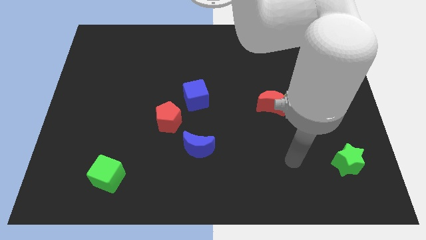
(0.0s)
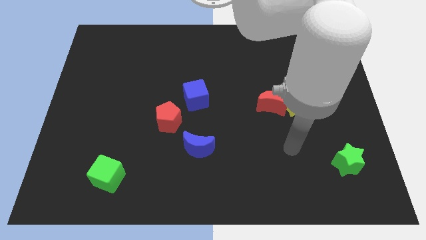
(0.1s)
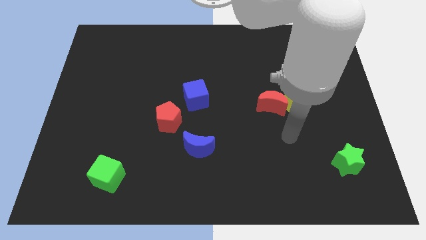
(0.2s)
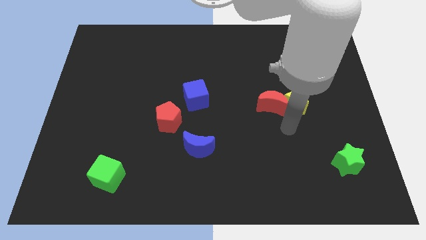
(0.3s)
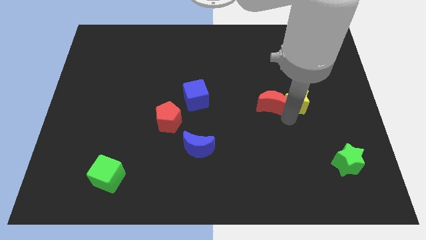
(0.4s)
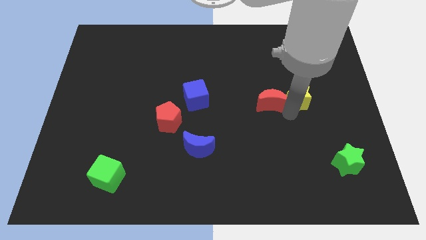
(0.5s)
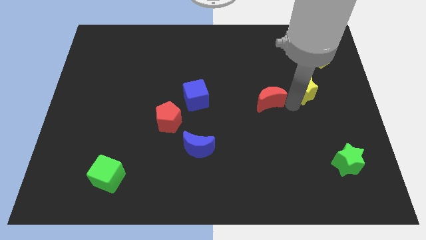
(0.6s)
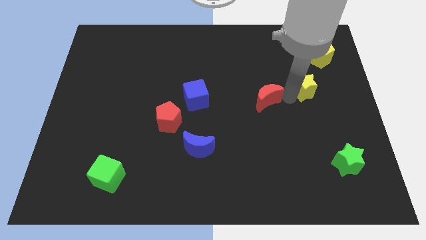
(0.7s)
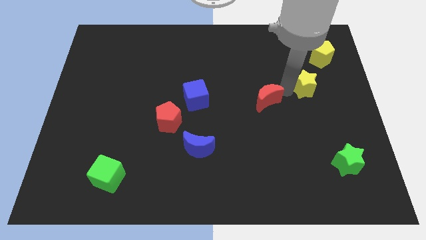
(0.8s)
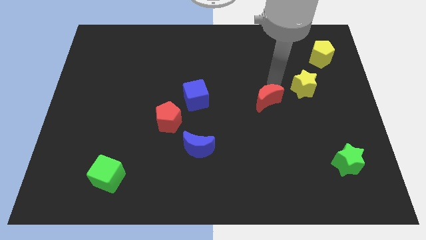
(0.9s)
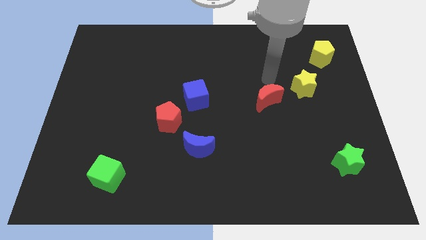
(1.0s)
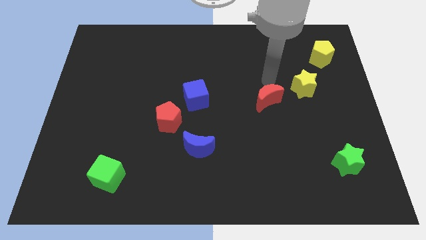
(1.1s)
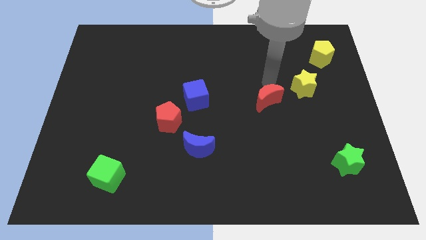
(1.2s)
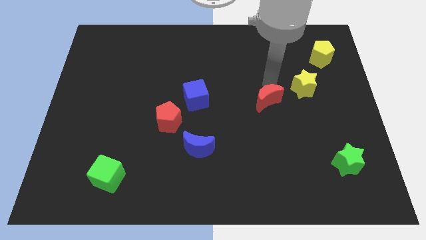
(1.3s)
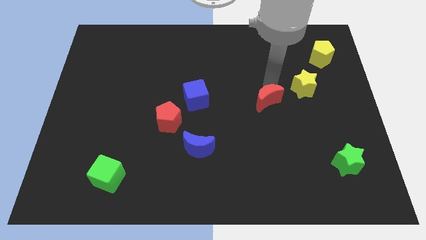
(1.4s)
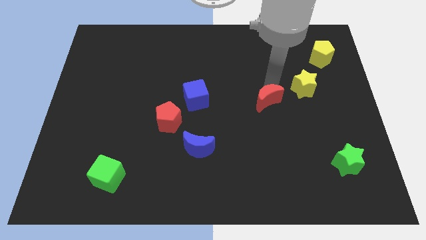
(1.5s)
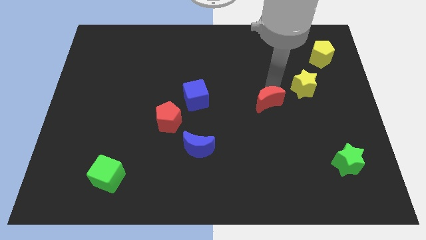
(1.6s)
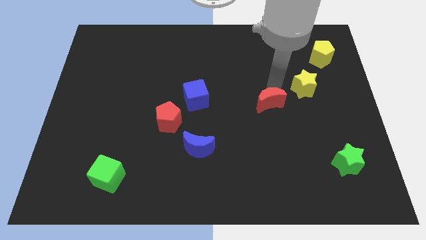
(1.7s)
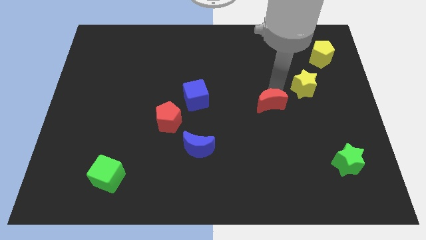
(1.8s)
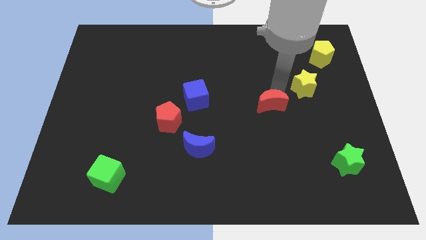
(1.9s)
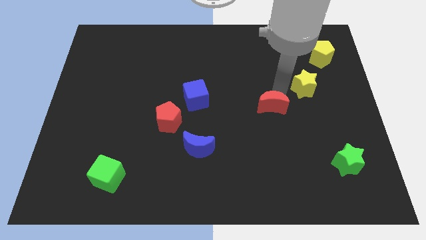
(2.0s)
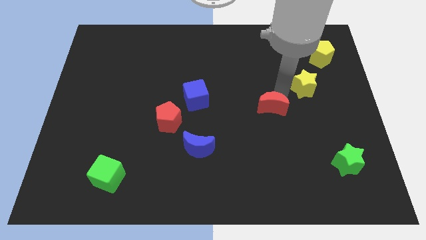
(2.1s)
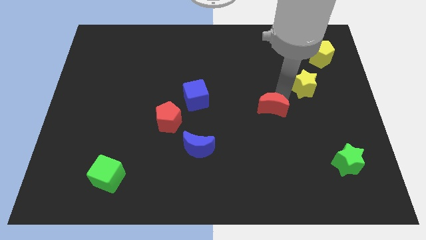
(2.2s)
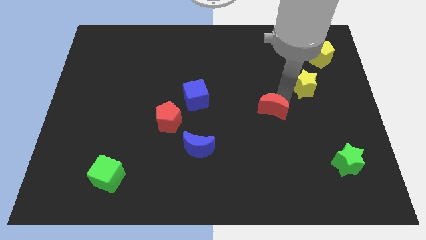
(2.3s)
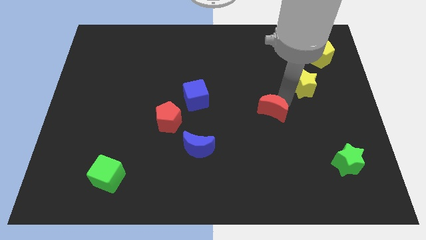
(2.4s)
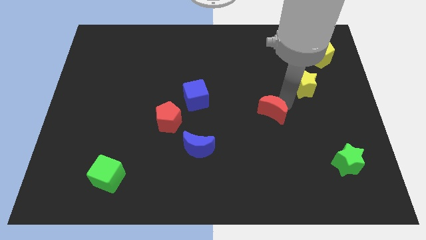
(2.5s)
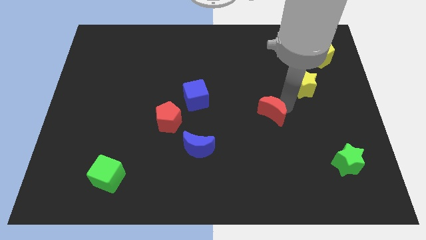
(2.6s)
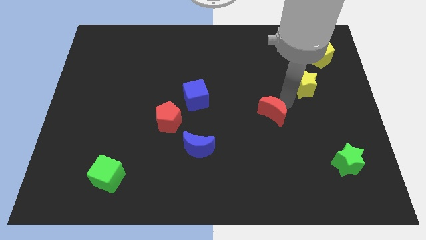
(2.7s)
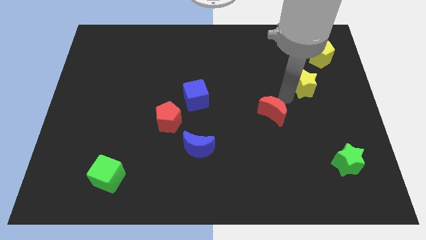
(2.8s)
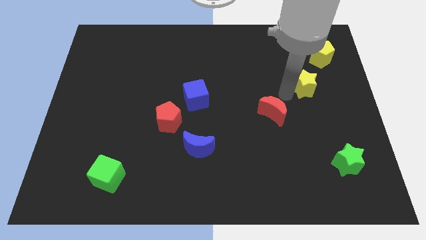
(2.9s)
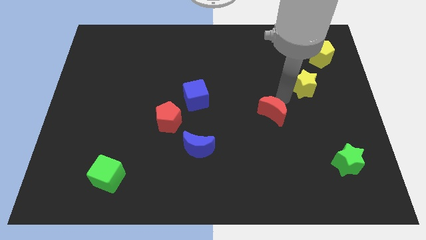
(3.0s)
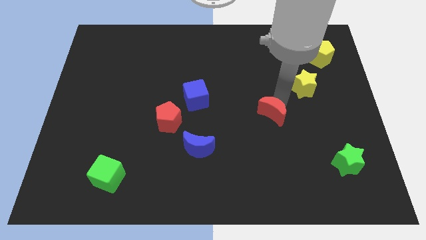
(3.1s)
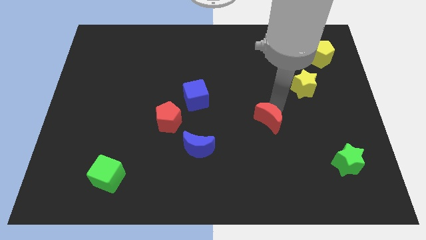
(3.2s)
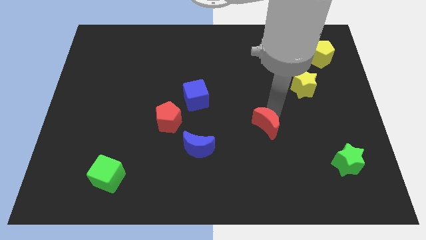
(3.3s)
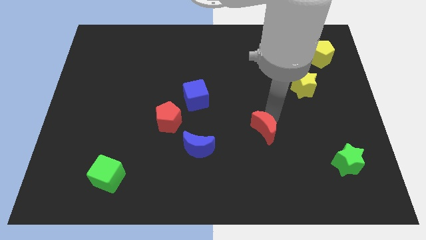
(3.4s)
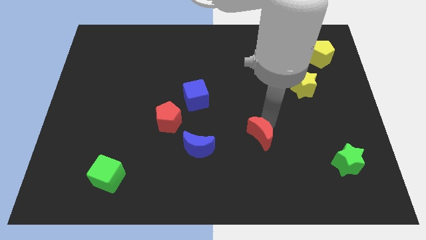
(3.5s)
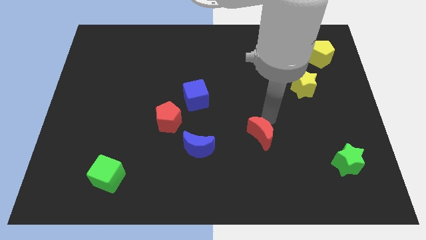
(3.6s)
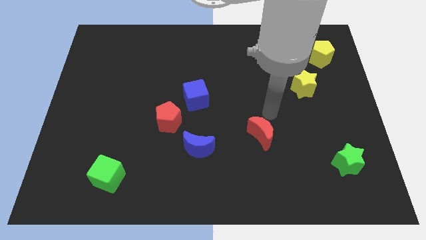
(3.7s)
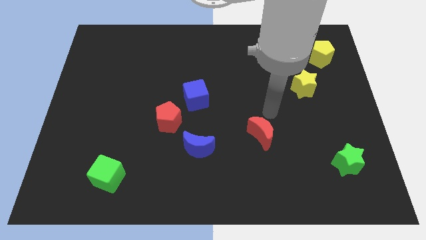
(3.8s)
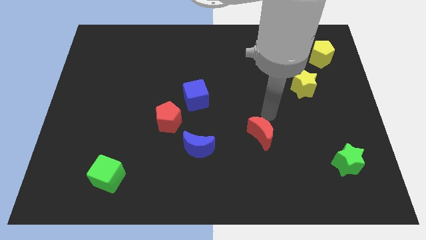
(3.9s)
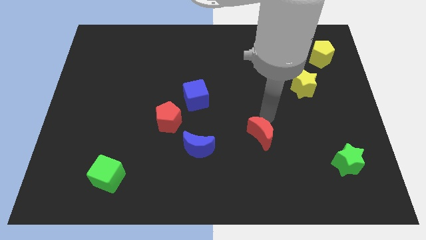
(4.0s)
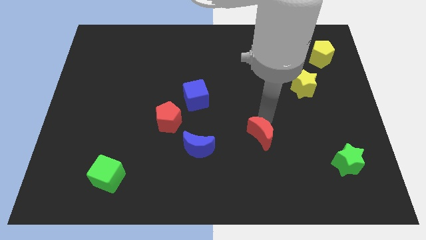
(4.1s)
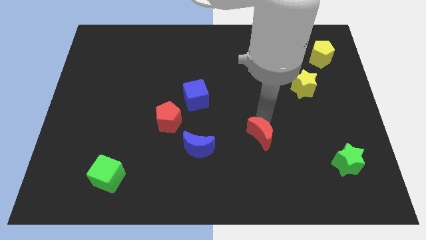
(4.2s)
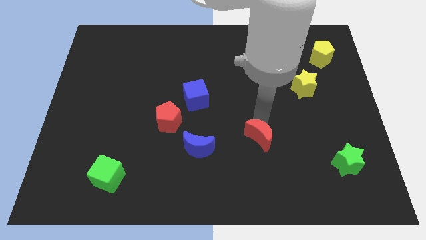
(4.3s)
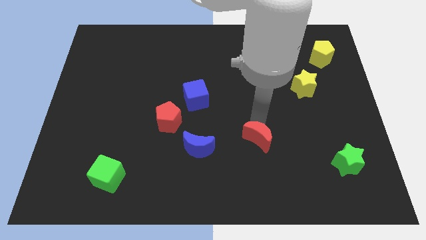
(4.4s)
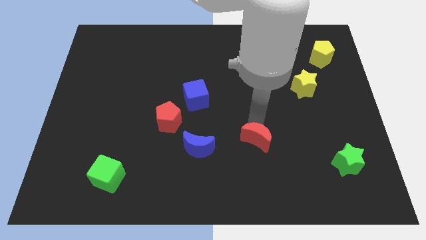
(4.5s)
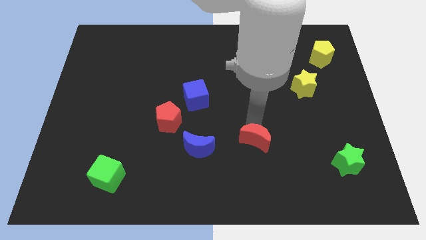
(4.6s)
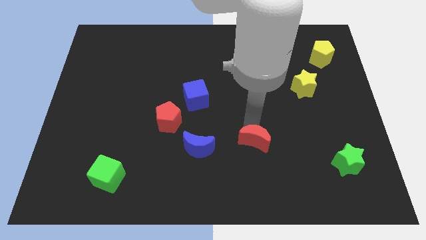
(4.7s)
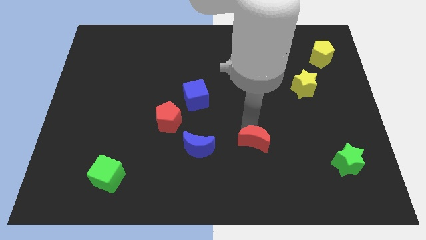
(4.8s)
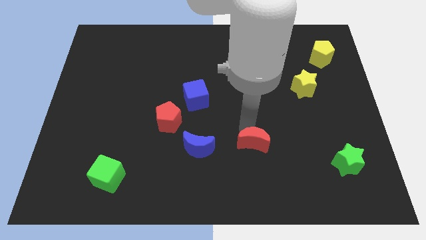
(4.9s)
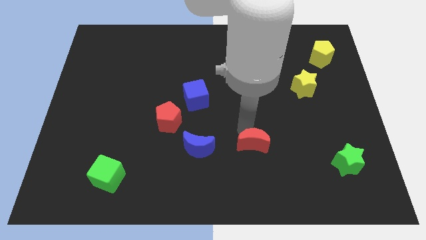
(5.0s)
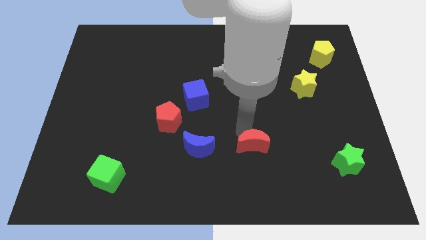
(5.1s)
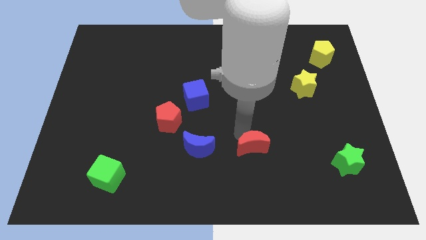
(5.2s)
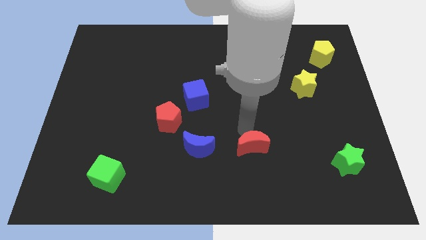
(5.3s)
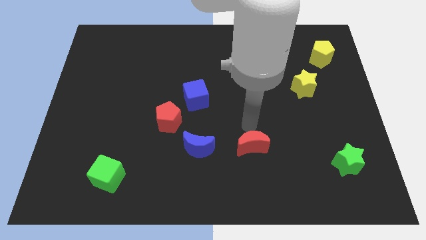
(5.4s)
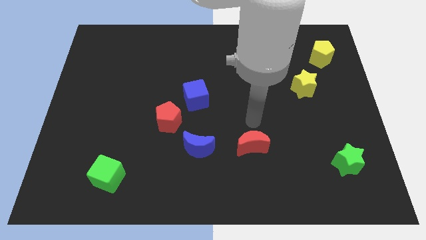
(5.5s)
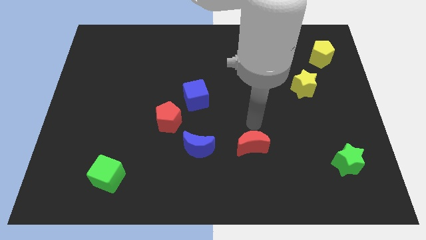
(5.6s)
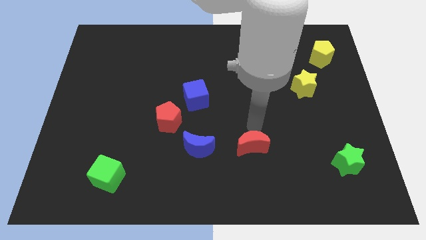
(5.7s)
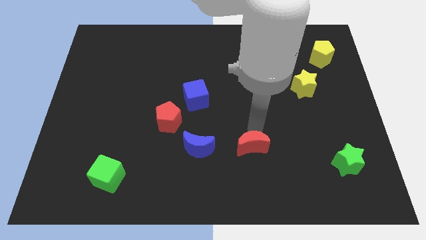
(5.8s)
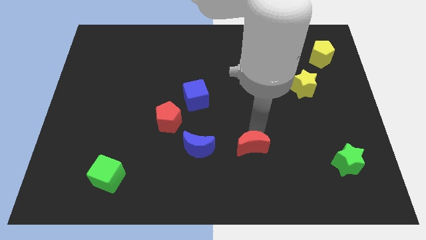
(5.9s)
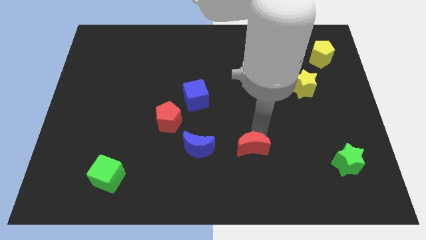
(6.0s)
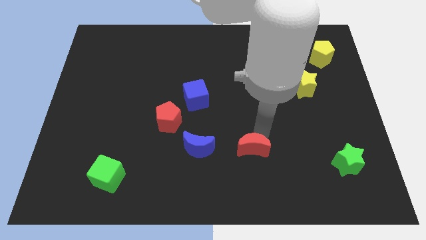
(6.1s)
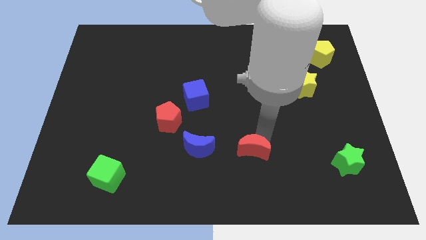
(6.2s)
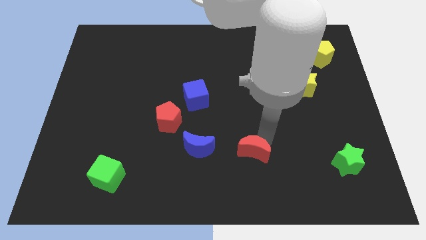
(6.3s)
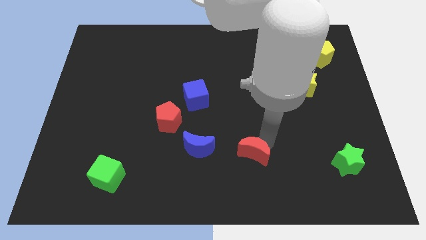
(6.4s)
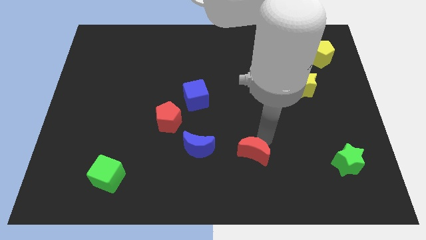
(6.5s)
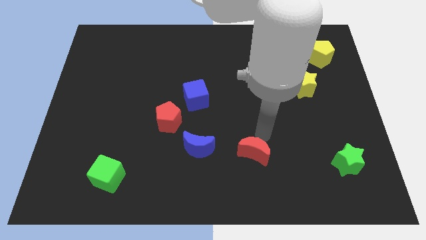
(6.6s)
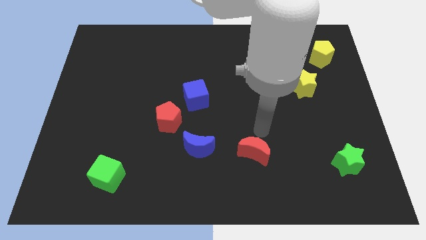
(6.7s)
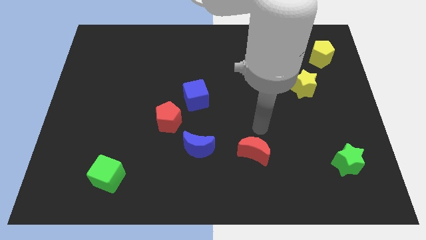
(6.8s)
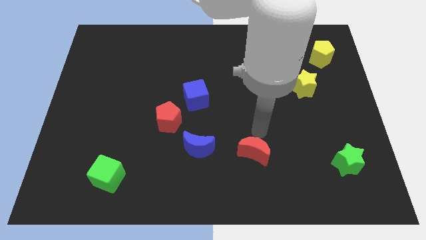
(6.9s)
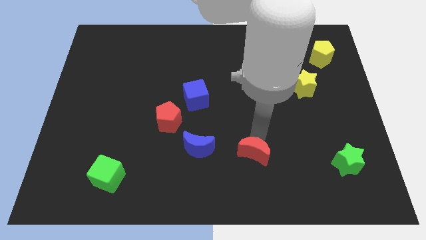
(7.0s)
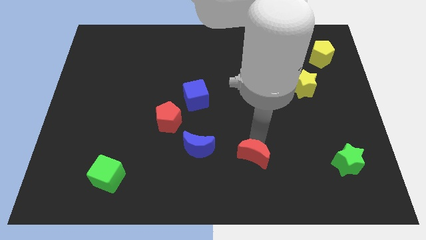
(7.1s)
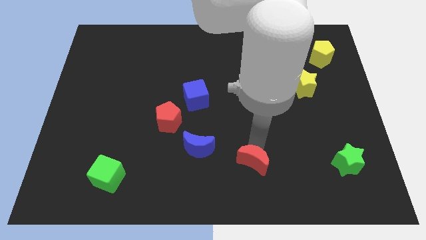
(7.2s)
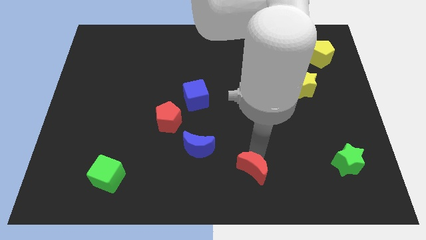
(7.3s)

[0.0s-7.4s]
slide the red moon to the bottom side
